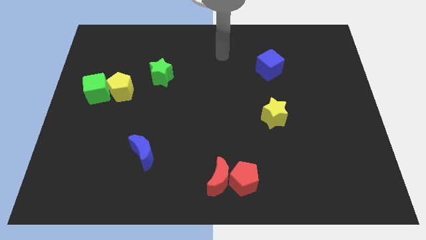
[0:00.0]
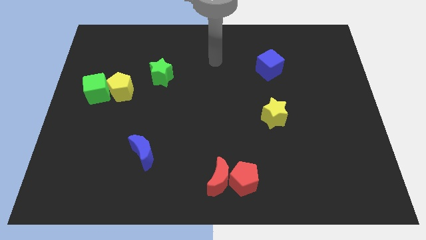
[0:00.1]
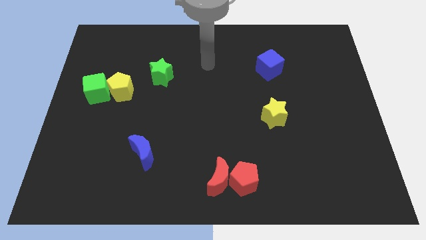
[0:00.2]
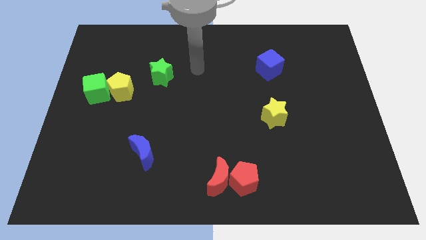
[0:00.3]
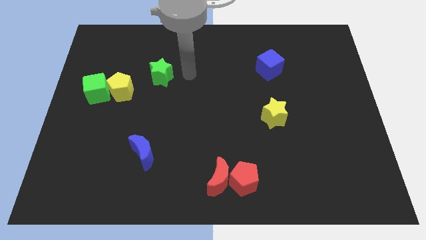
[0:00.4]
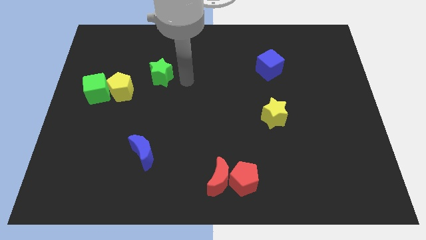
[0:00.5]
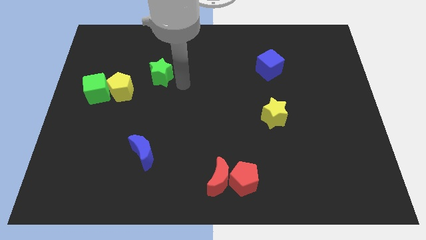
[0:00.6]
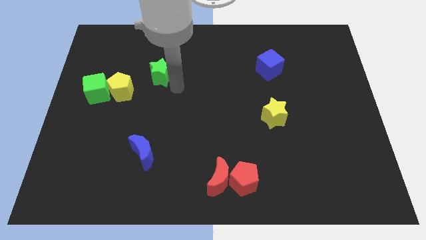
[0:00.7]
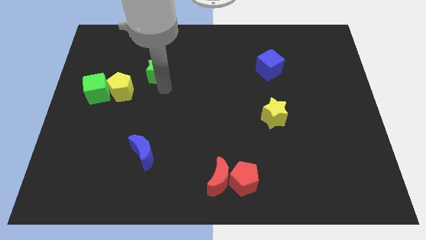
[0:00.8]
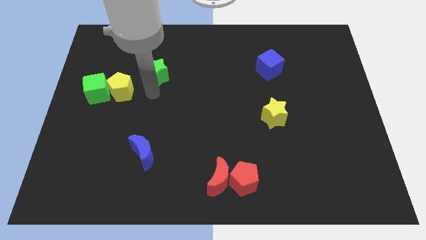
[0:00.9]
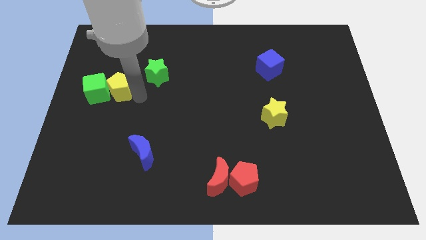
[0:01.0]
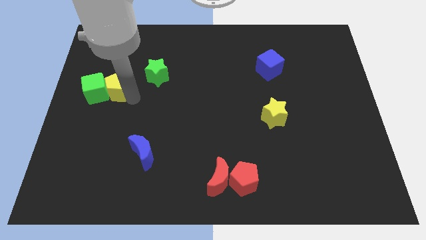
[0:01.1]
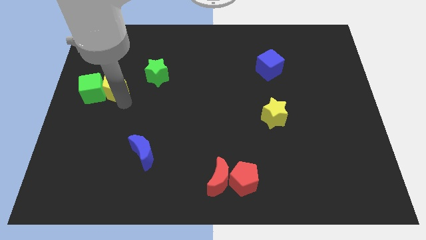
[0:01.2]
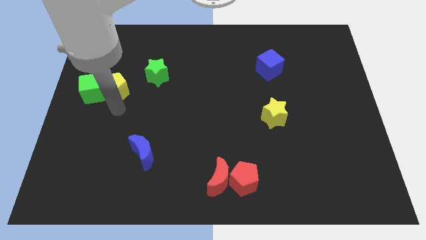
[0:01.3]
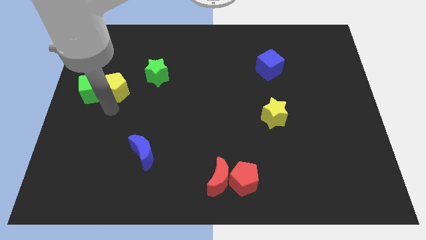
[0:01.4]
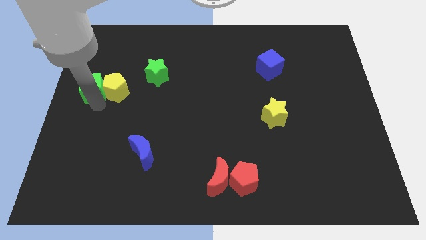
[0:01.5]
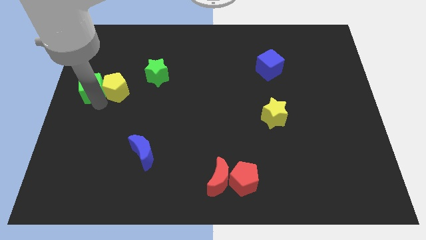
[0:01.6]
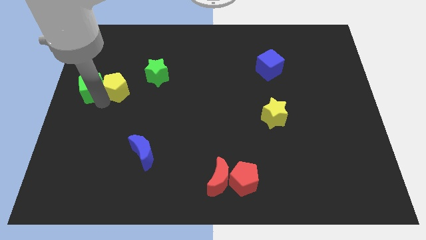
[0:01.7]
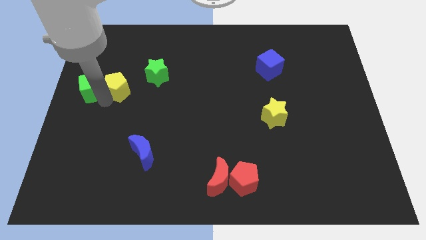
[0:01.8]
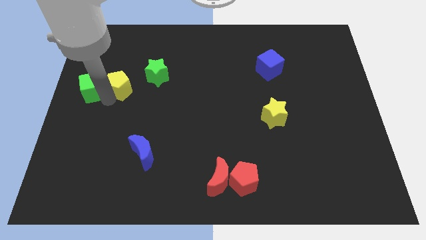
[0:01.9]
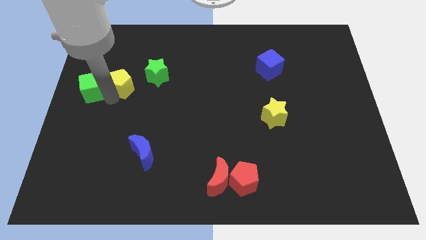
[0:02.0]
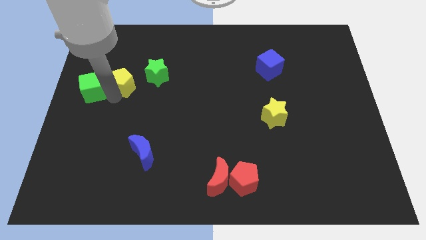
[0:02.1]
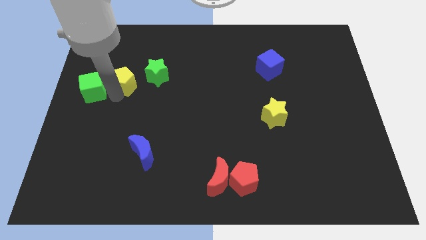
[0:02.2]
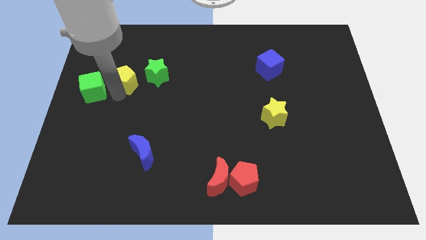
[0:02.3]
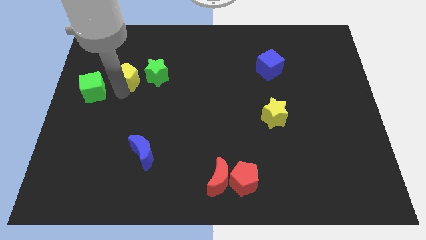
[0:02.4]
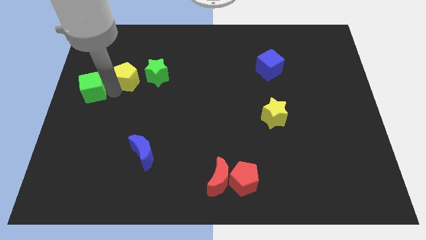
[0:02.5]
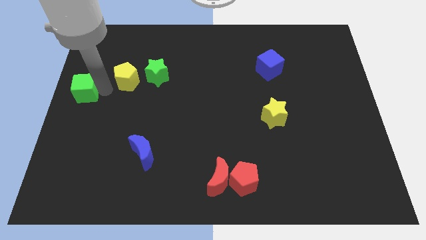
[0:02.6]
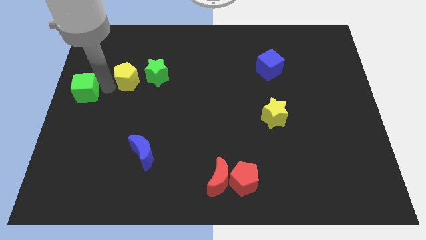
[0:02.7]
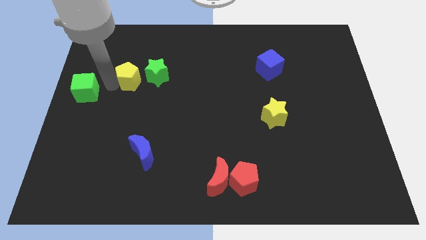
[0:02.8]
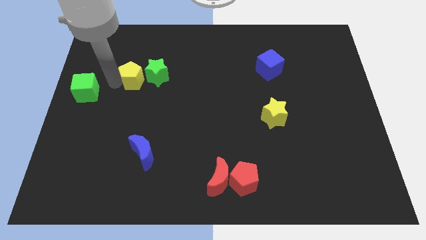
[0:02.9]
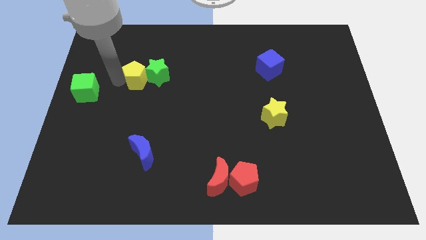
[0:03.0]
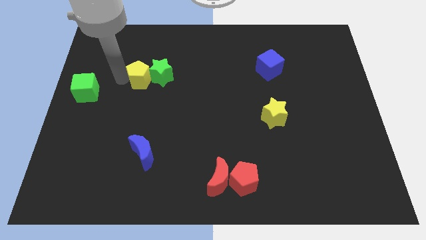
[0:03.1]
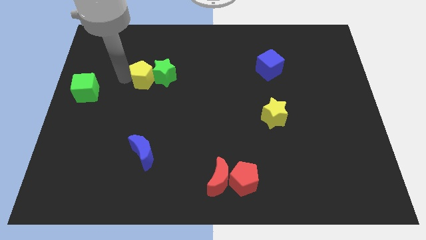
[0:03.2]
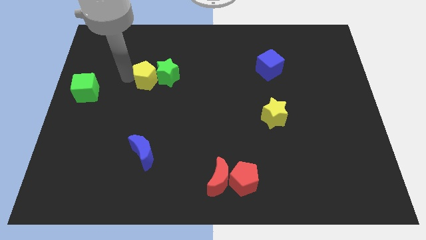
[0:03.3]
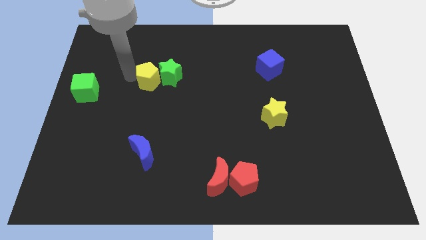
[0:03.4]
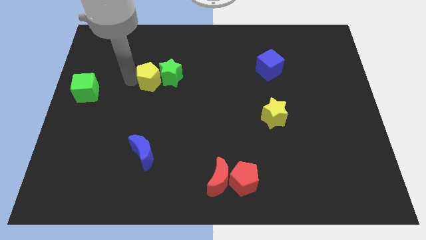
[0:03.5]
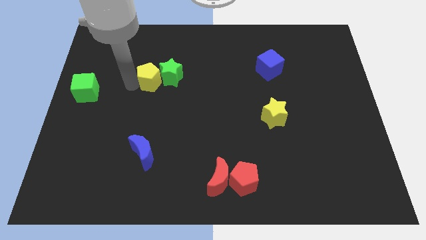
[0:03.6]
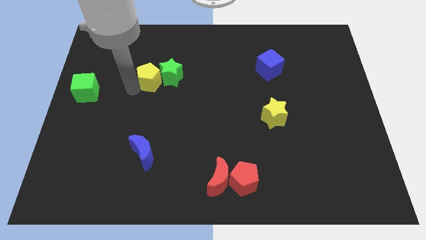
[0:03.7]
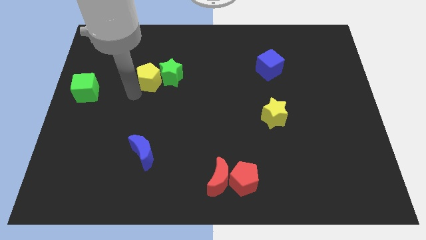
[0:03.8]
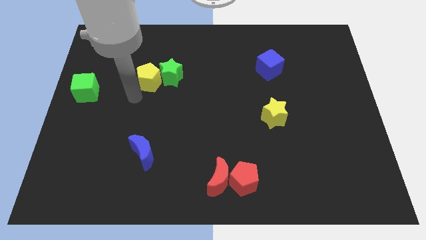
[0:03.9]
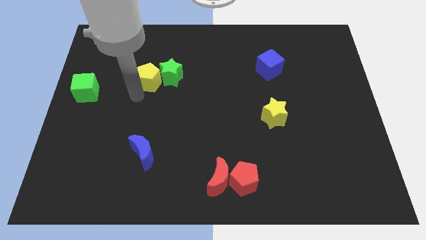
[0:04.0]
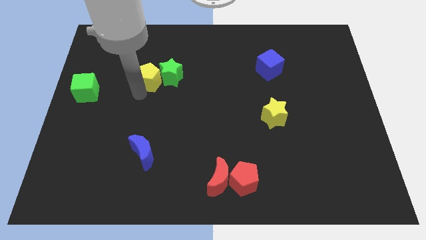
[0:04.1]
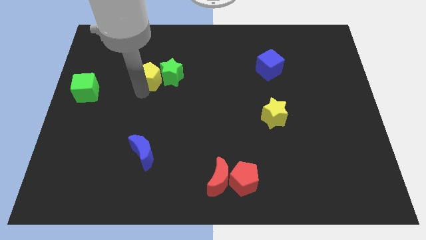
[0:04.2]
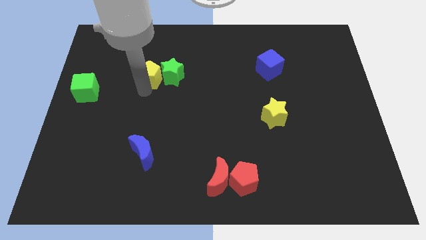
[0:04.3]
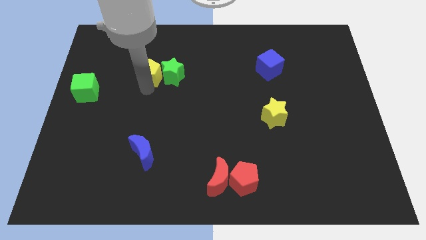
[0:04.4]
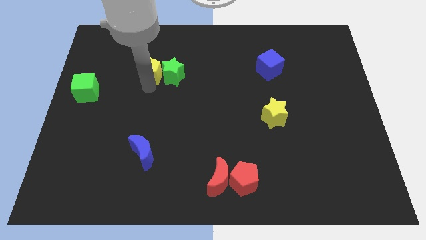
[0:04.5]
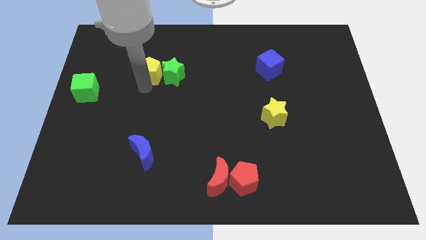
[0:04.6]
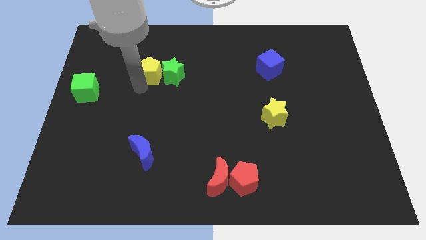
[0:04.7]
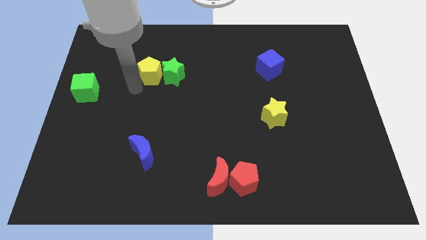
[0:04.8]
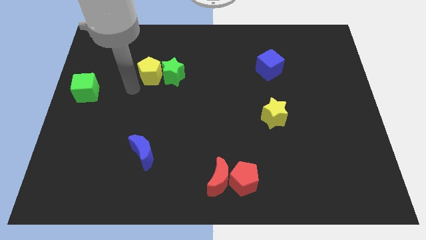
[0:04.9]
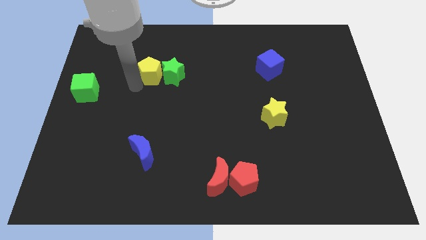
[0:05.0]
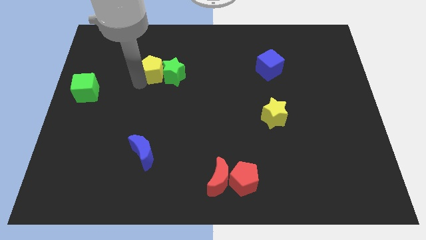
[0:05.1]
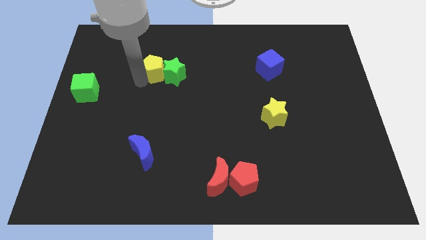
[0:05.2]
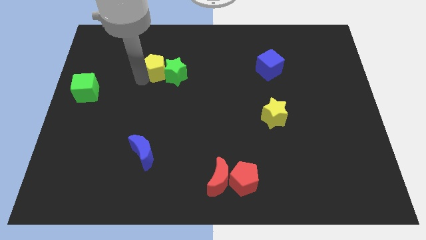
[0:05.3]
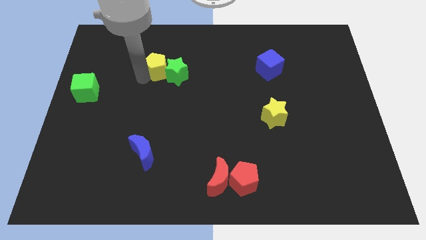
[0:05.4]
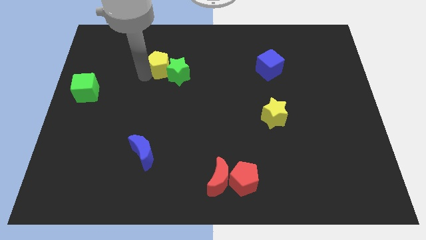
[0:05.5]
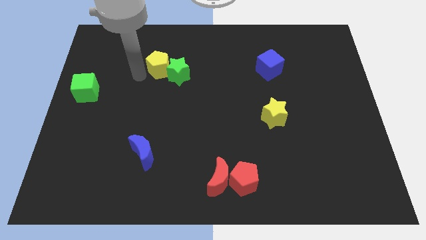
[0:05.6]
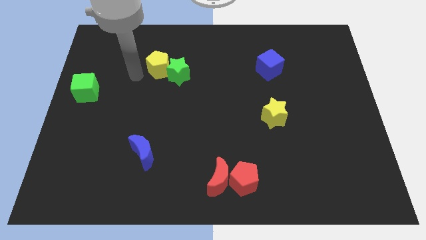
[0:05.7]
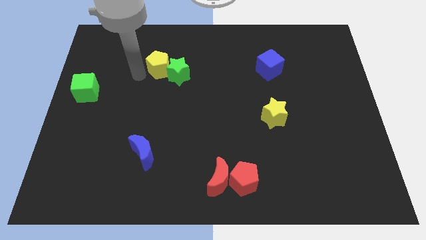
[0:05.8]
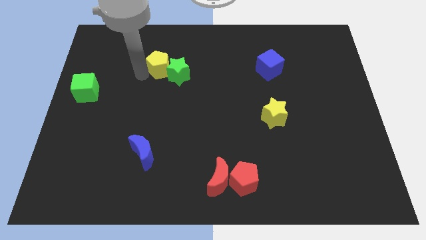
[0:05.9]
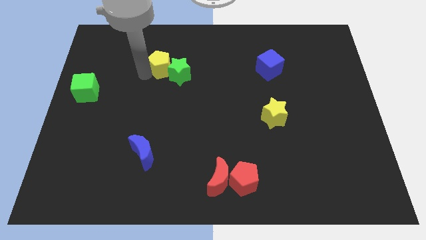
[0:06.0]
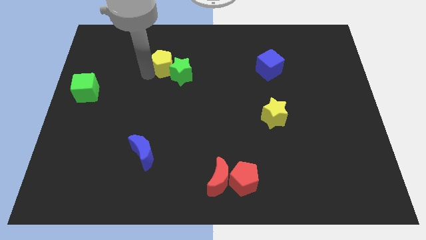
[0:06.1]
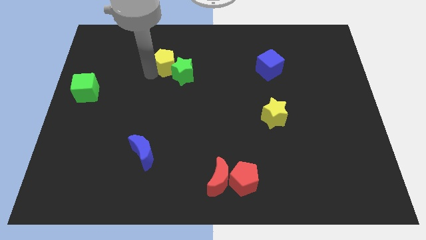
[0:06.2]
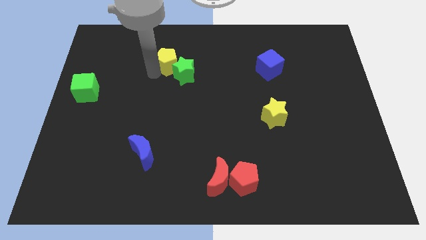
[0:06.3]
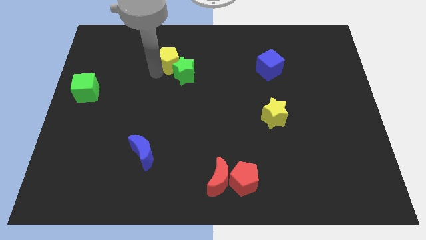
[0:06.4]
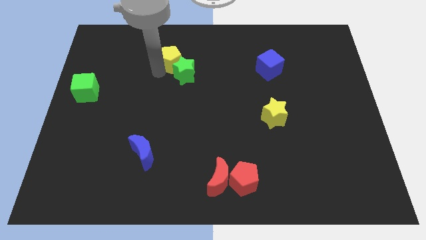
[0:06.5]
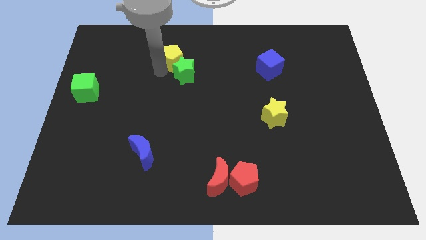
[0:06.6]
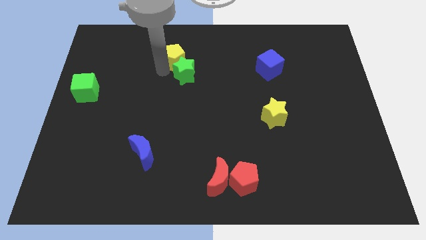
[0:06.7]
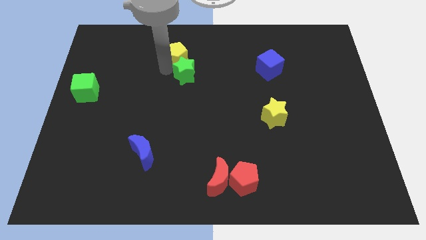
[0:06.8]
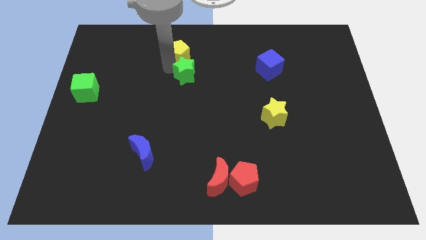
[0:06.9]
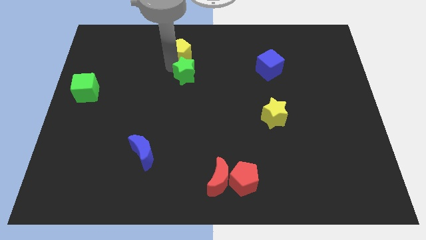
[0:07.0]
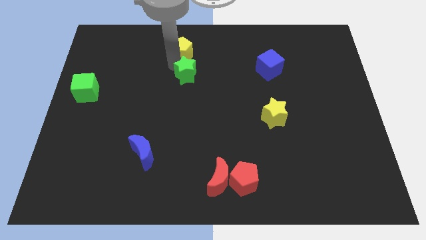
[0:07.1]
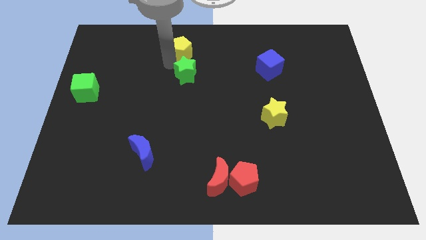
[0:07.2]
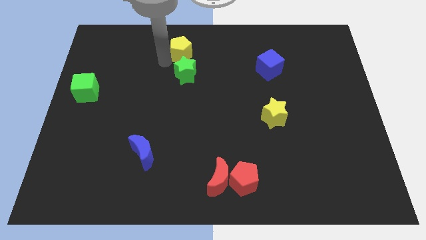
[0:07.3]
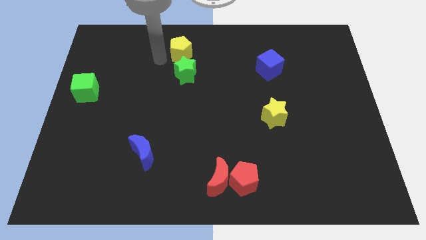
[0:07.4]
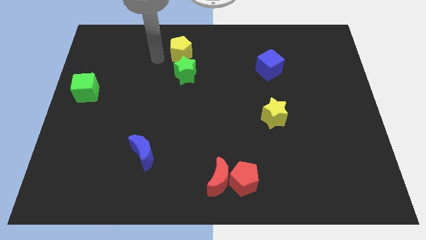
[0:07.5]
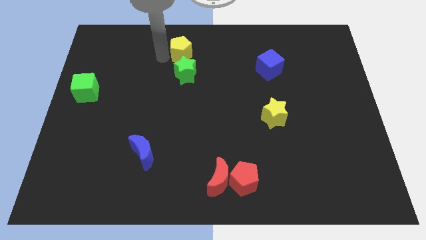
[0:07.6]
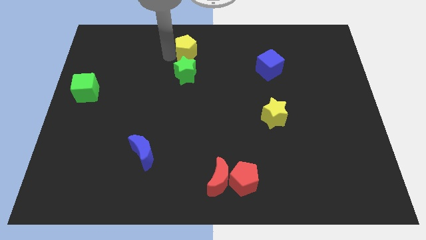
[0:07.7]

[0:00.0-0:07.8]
slide the yellow pentagon to the top side

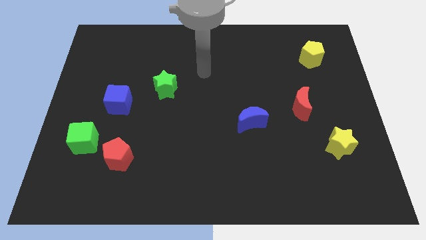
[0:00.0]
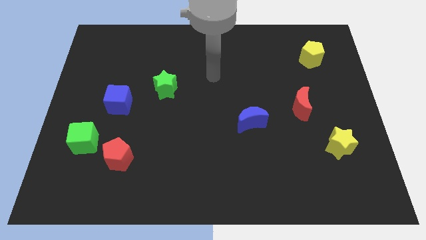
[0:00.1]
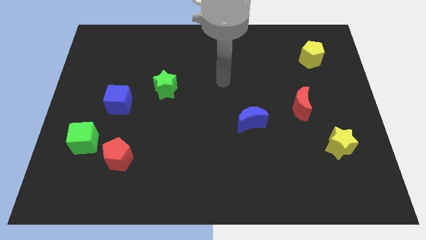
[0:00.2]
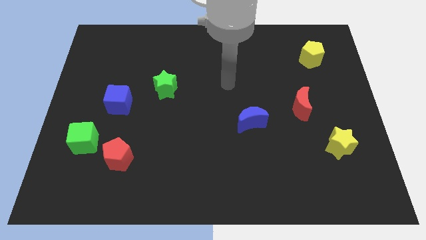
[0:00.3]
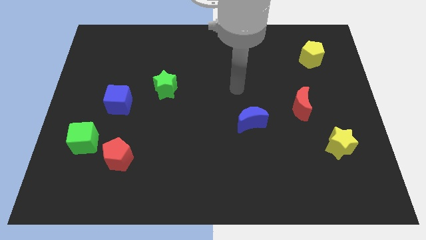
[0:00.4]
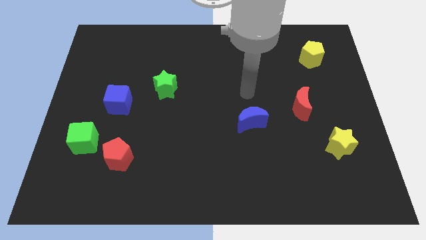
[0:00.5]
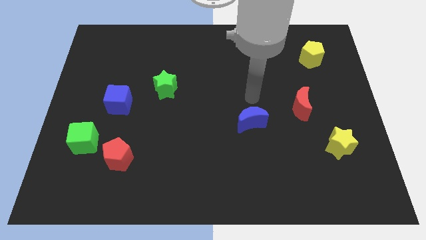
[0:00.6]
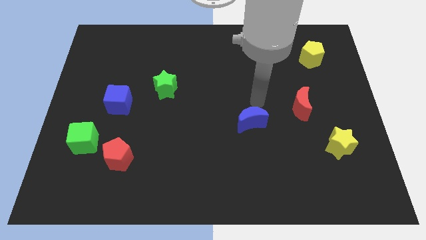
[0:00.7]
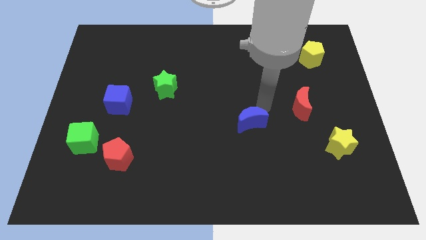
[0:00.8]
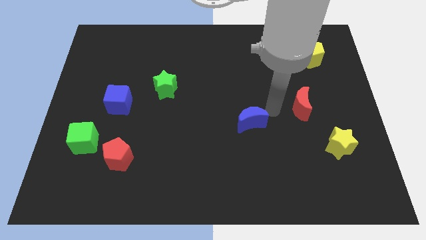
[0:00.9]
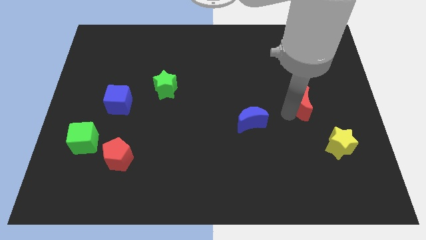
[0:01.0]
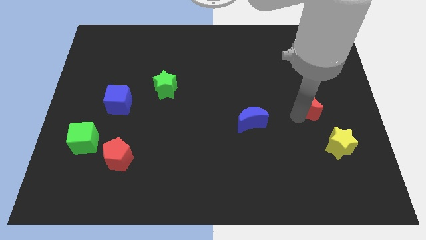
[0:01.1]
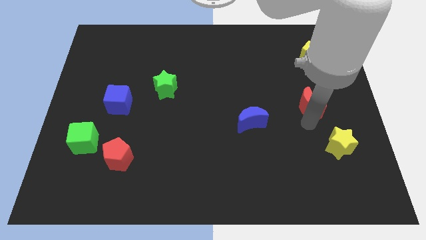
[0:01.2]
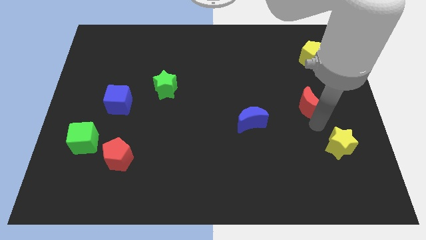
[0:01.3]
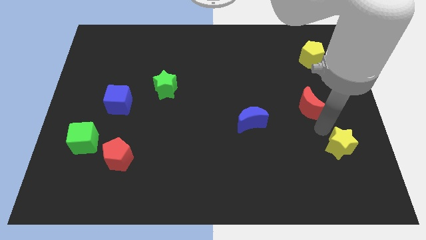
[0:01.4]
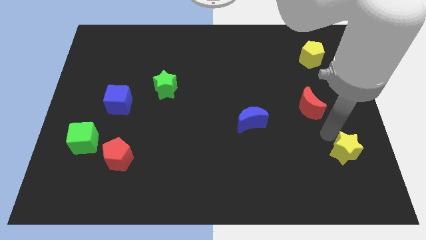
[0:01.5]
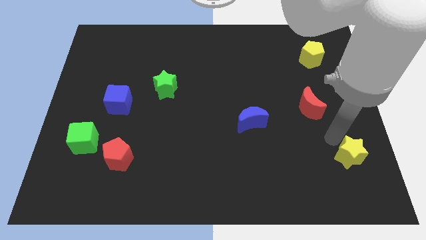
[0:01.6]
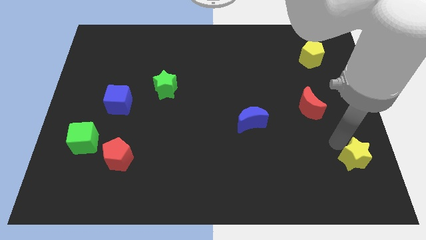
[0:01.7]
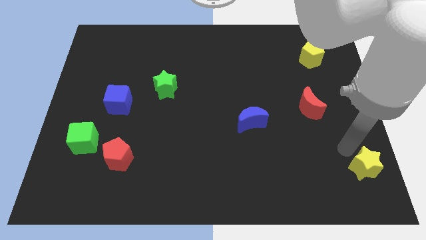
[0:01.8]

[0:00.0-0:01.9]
move the yellow star to the bottom right
